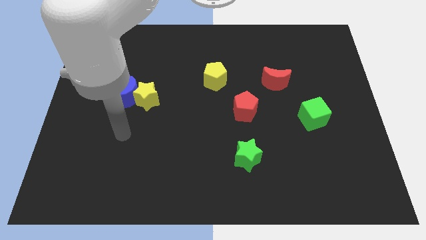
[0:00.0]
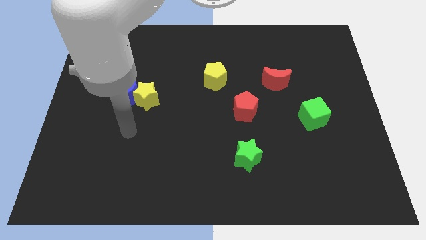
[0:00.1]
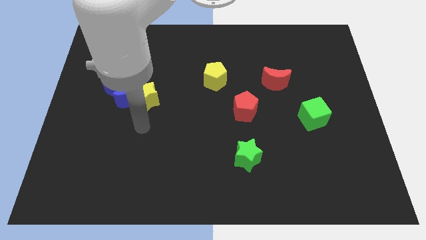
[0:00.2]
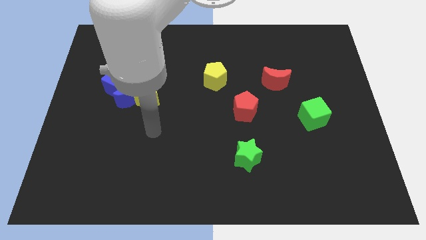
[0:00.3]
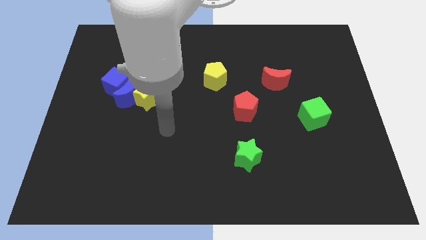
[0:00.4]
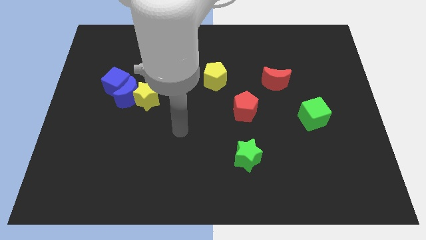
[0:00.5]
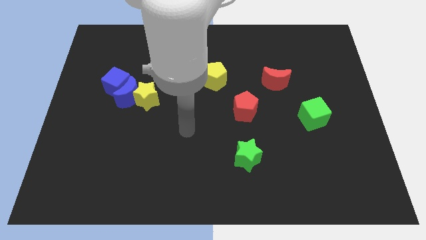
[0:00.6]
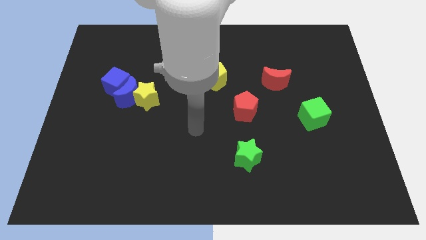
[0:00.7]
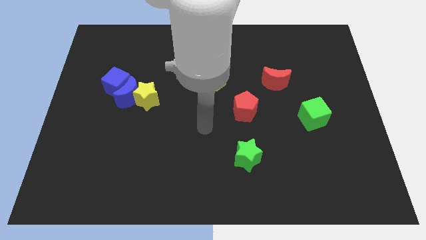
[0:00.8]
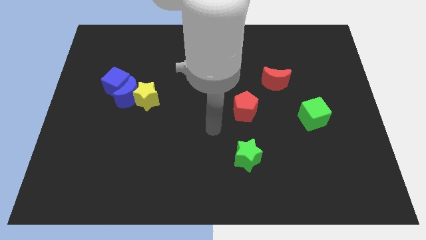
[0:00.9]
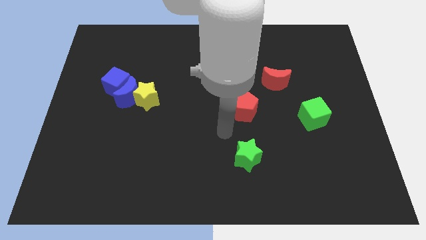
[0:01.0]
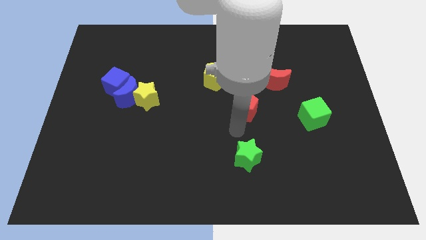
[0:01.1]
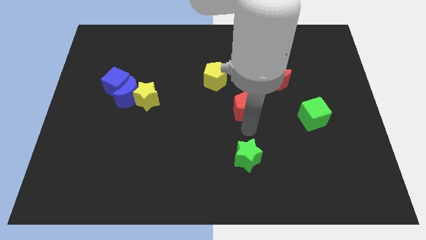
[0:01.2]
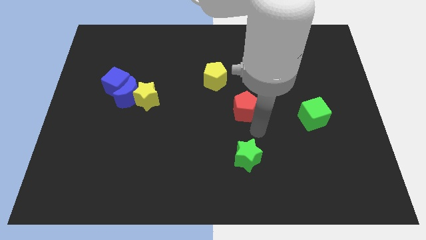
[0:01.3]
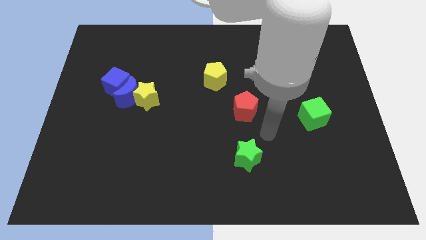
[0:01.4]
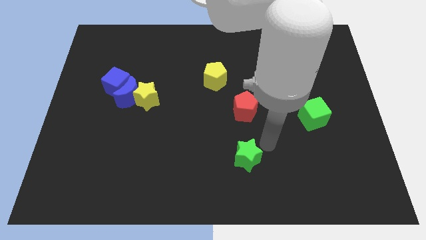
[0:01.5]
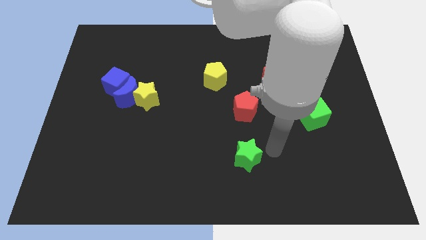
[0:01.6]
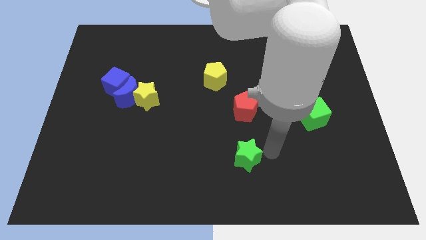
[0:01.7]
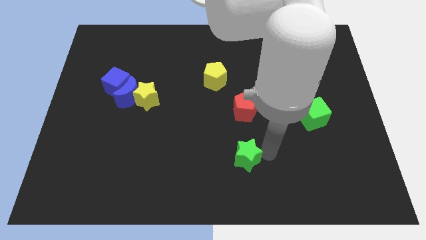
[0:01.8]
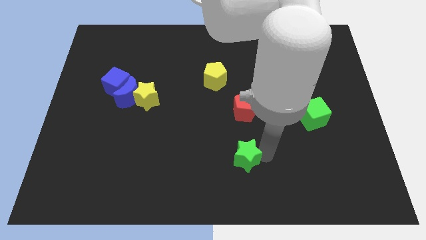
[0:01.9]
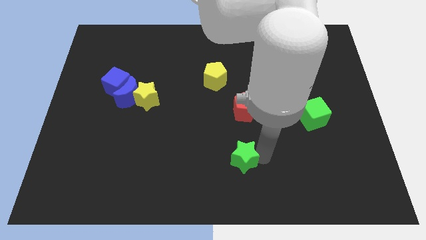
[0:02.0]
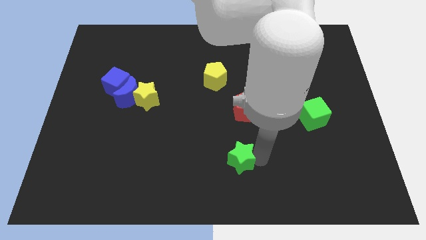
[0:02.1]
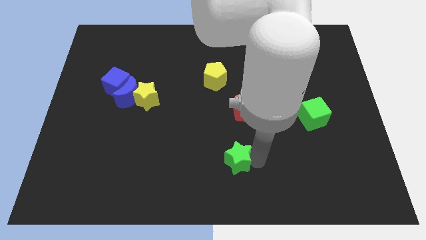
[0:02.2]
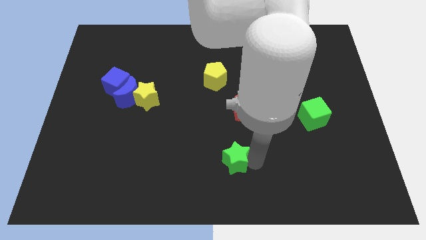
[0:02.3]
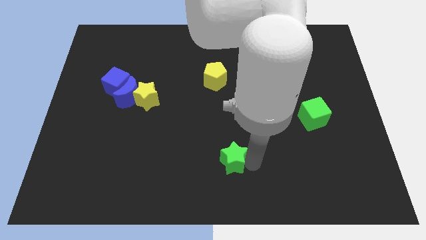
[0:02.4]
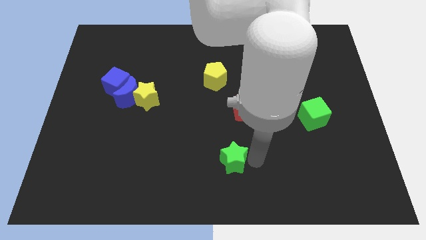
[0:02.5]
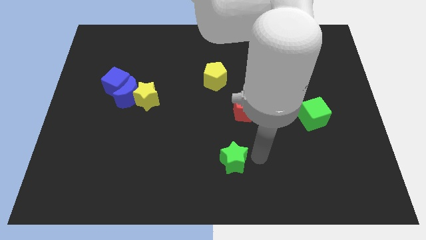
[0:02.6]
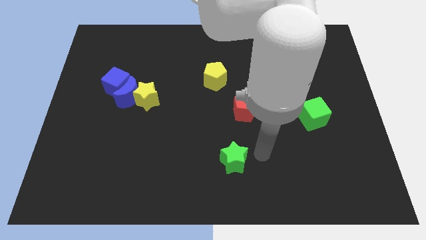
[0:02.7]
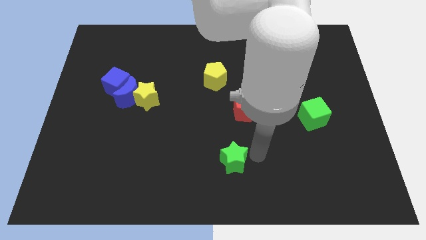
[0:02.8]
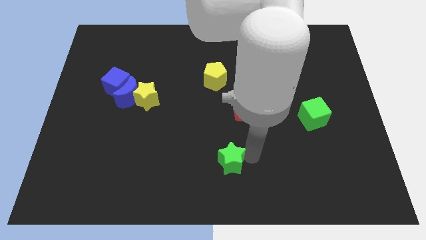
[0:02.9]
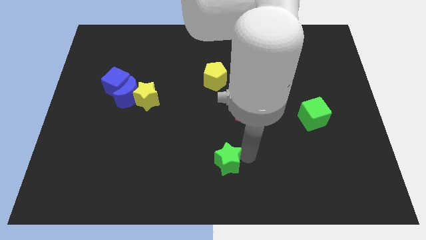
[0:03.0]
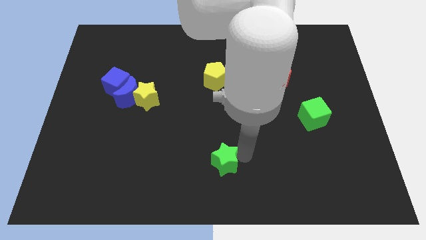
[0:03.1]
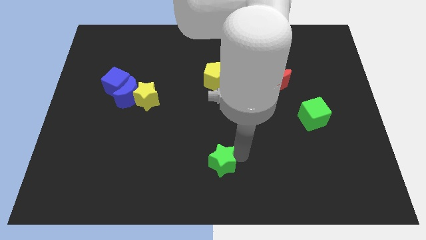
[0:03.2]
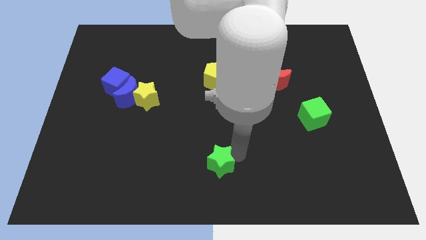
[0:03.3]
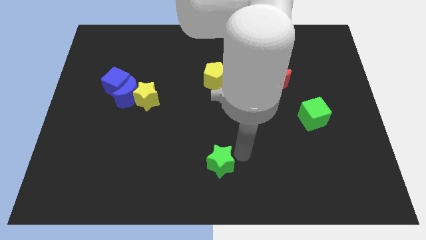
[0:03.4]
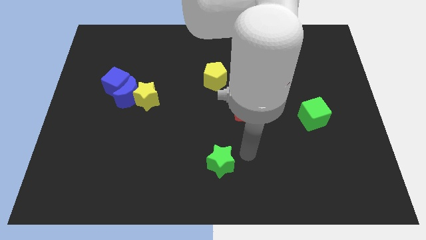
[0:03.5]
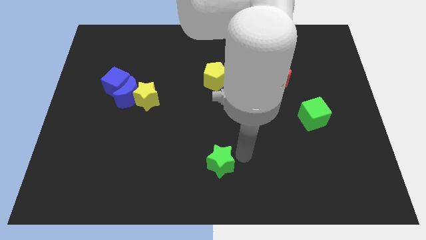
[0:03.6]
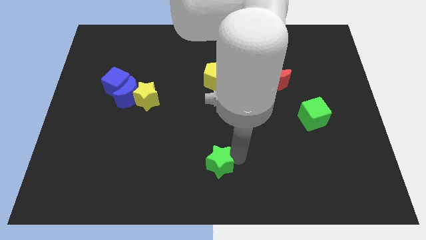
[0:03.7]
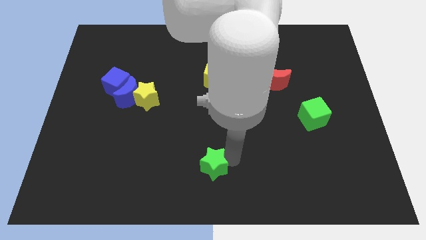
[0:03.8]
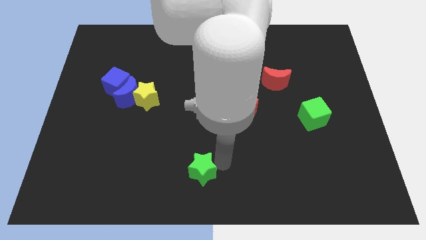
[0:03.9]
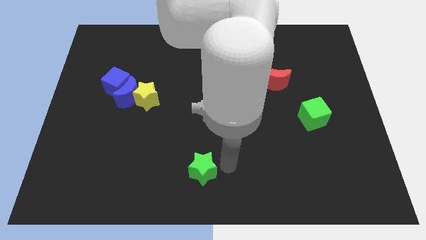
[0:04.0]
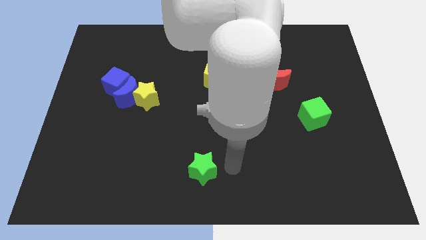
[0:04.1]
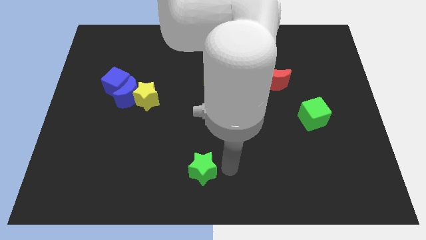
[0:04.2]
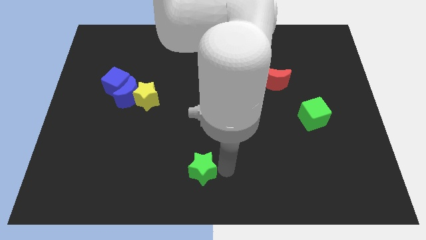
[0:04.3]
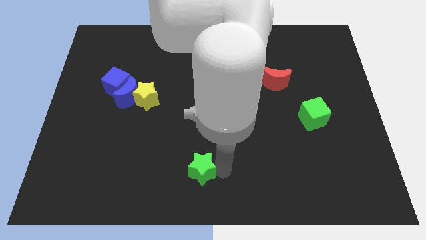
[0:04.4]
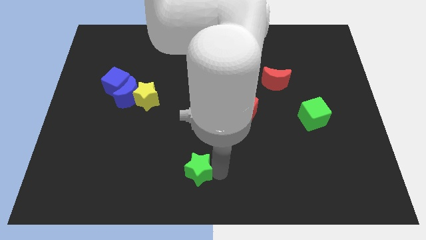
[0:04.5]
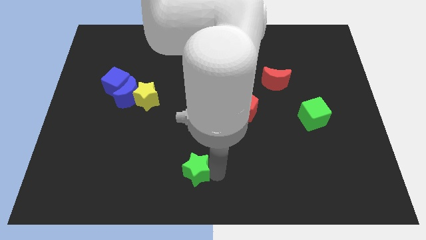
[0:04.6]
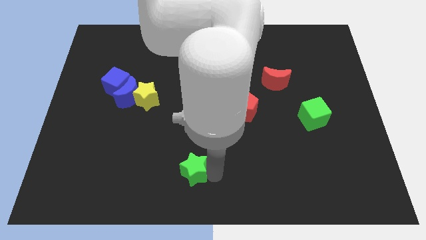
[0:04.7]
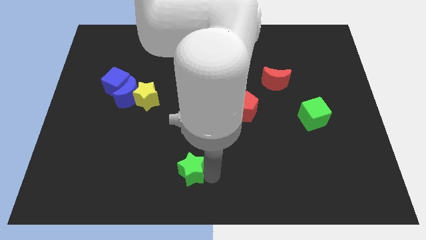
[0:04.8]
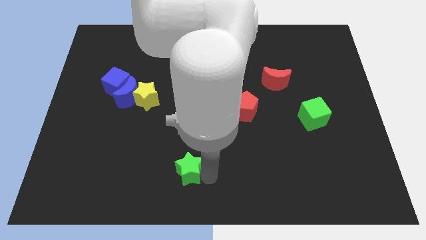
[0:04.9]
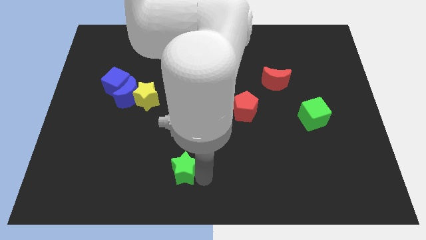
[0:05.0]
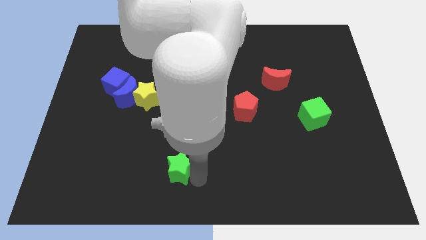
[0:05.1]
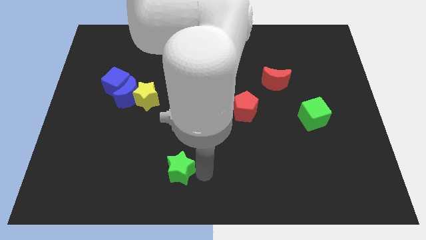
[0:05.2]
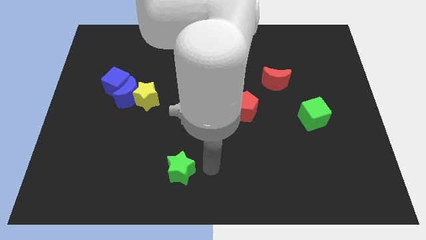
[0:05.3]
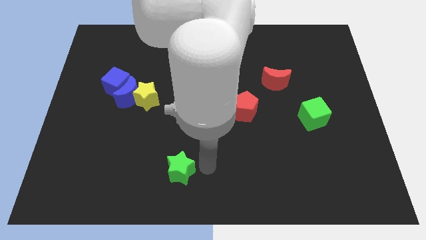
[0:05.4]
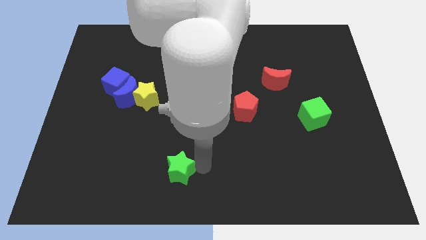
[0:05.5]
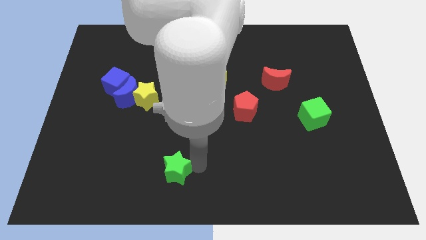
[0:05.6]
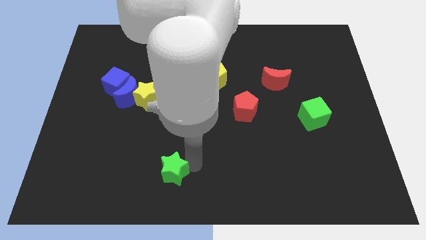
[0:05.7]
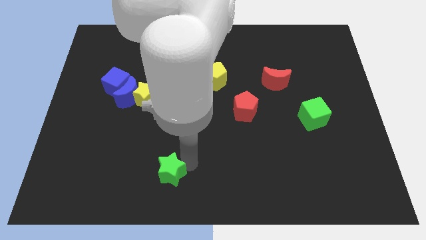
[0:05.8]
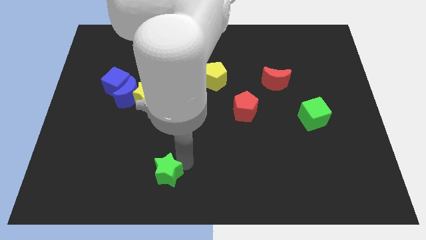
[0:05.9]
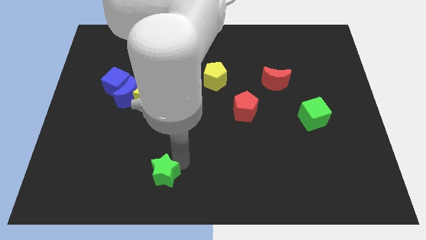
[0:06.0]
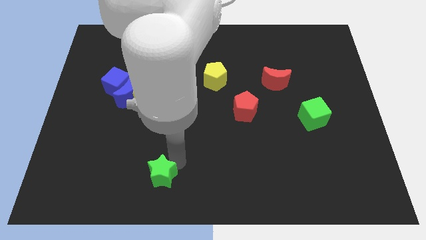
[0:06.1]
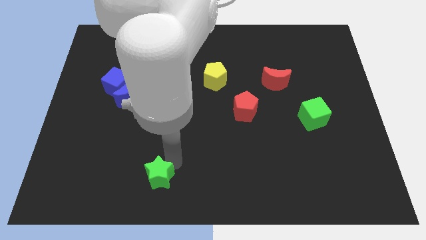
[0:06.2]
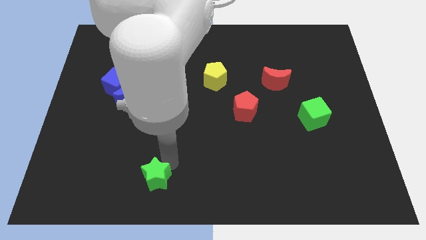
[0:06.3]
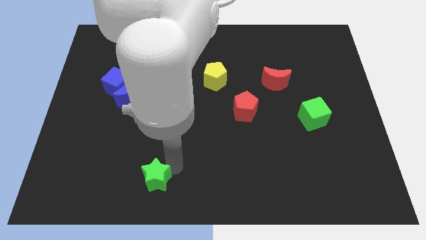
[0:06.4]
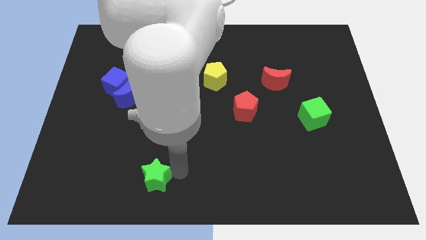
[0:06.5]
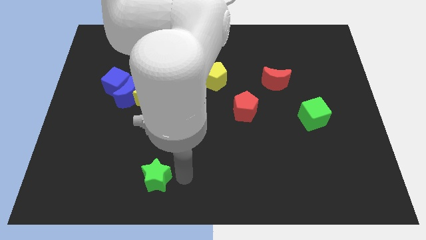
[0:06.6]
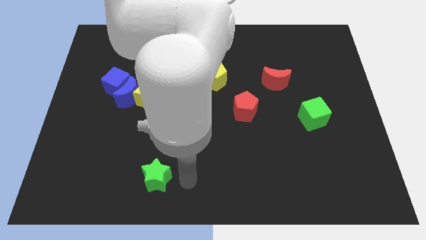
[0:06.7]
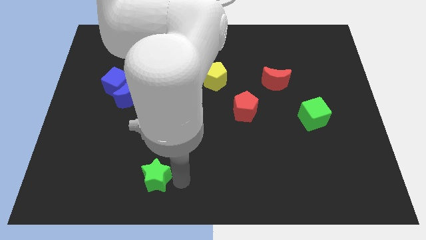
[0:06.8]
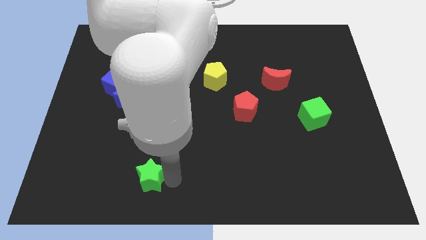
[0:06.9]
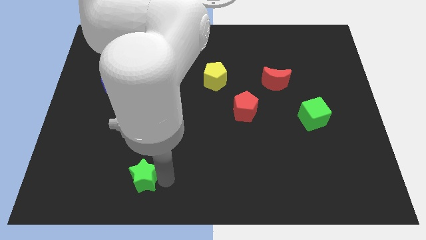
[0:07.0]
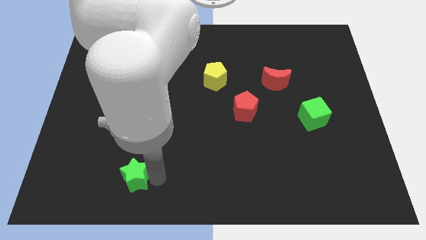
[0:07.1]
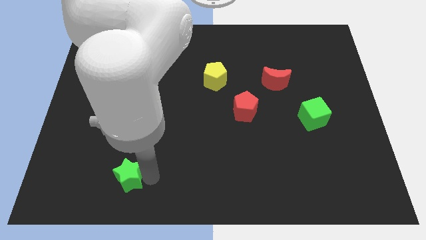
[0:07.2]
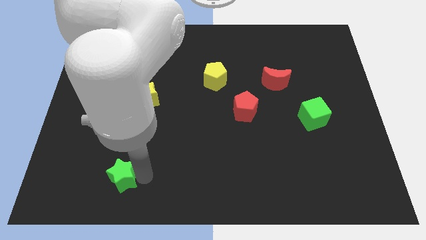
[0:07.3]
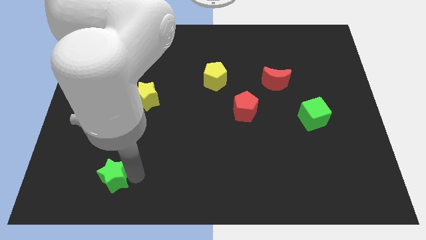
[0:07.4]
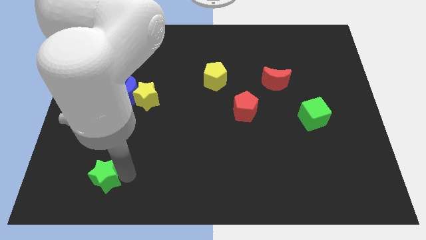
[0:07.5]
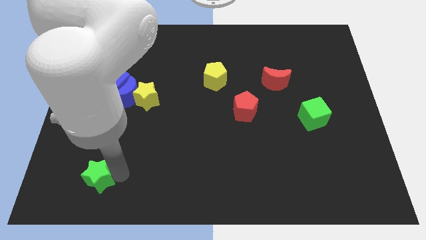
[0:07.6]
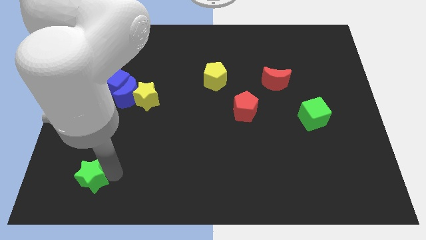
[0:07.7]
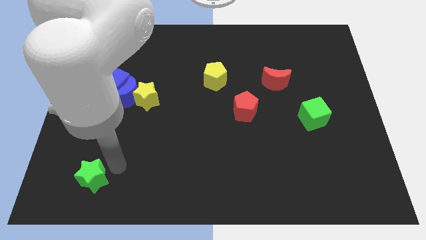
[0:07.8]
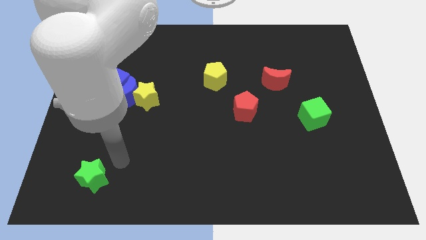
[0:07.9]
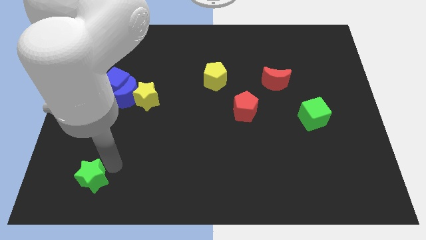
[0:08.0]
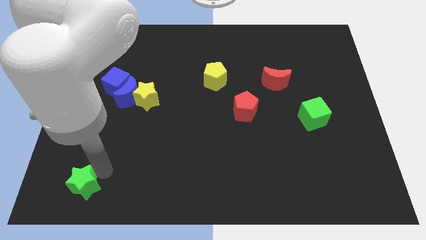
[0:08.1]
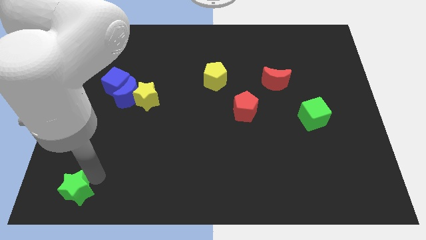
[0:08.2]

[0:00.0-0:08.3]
put the green star to the bottom left corner

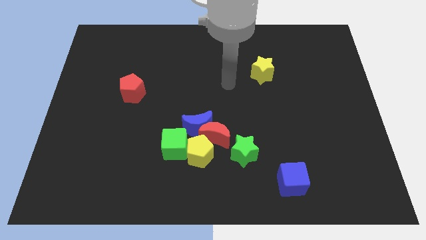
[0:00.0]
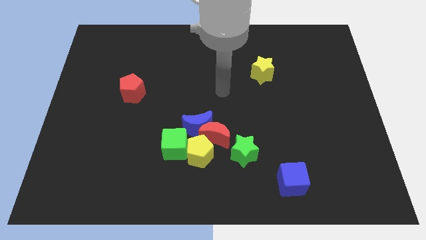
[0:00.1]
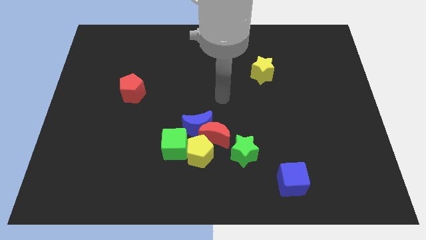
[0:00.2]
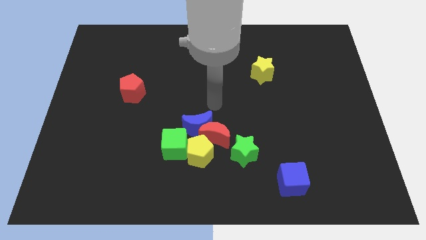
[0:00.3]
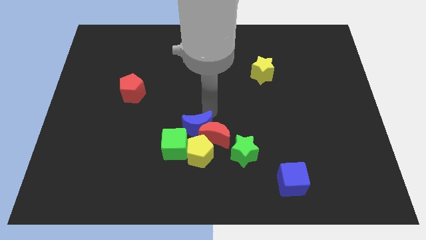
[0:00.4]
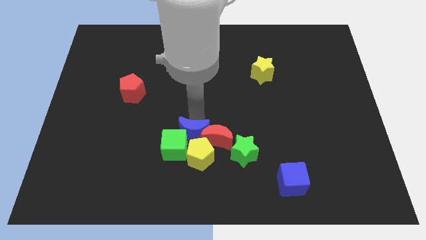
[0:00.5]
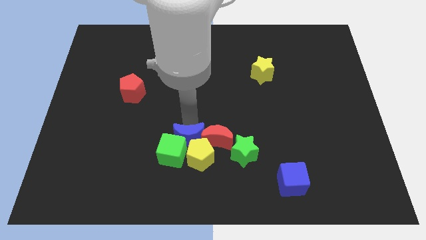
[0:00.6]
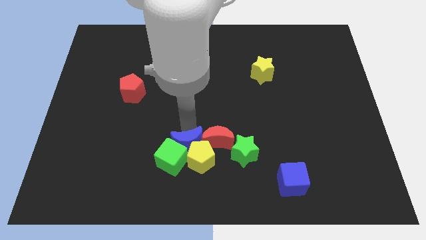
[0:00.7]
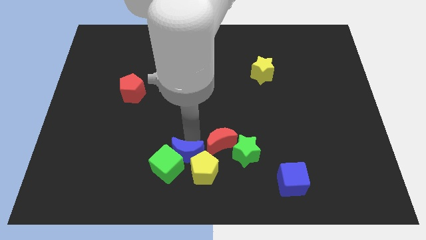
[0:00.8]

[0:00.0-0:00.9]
put the green cube to the bottom side
